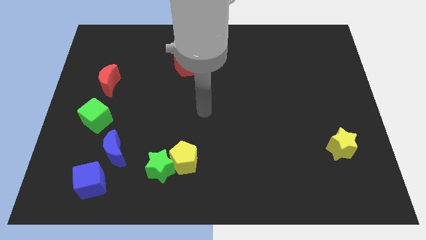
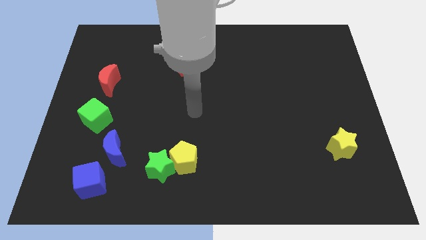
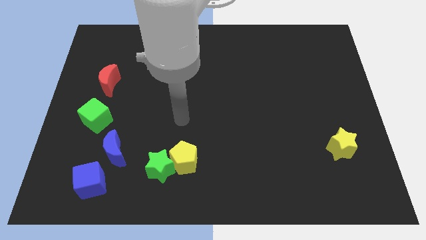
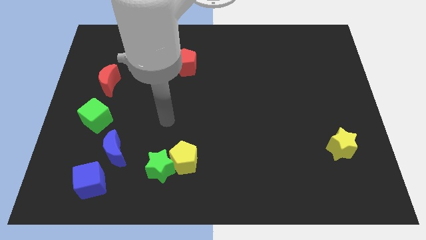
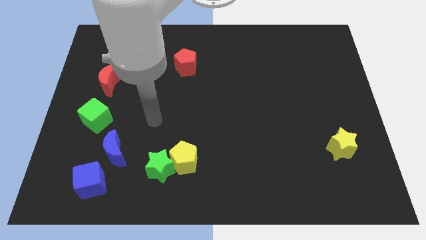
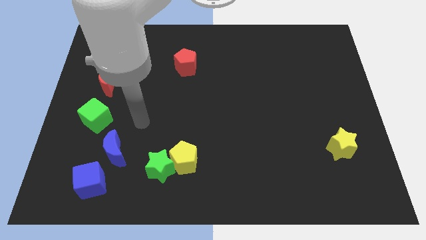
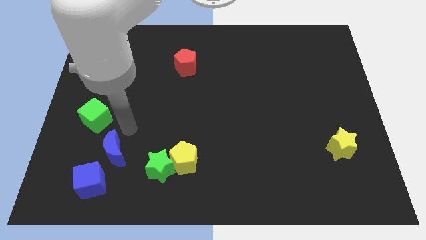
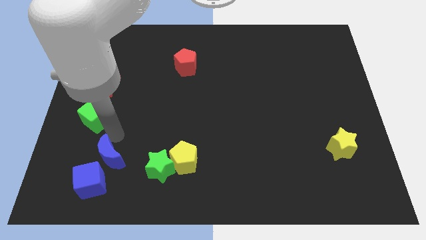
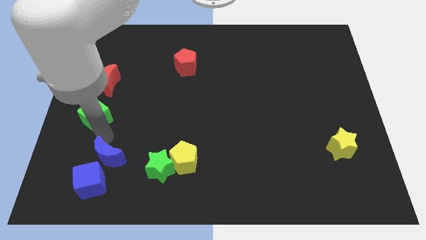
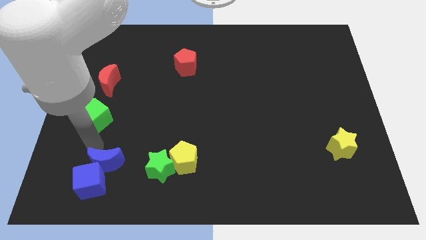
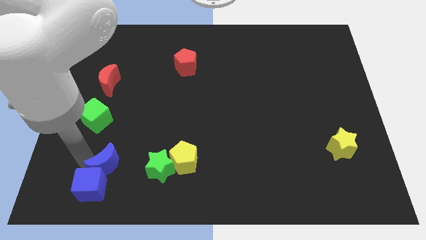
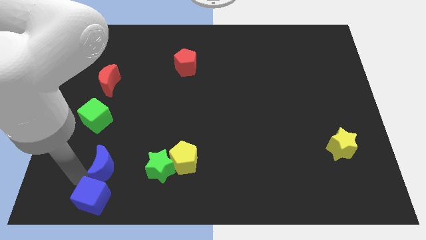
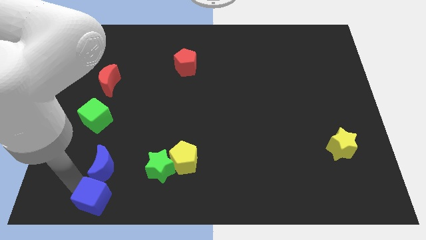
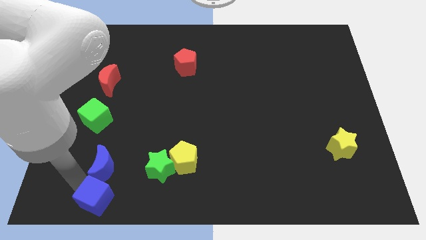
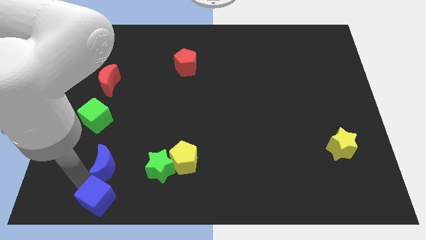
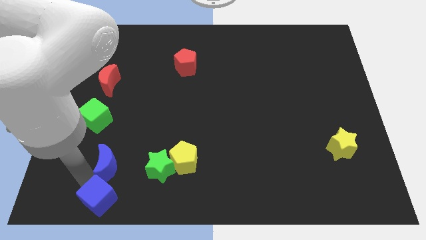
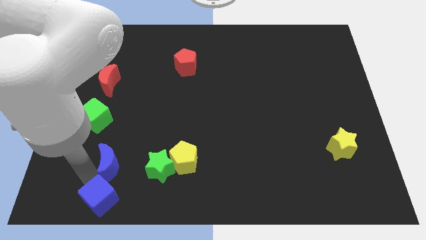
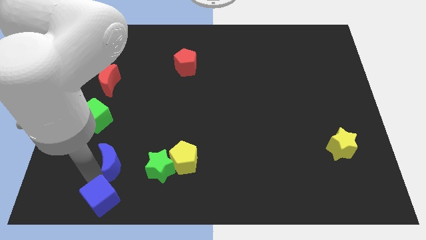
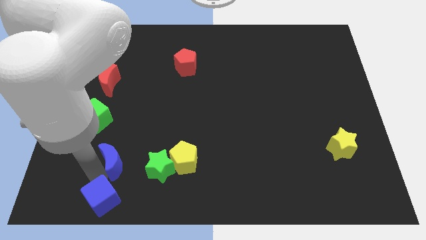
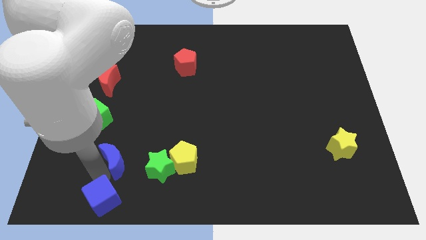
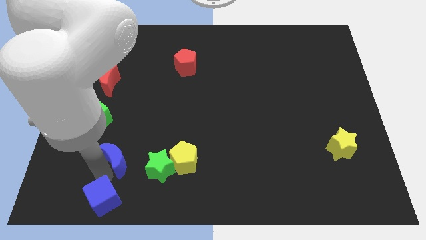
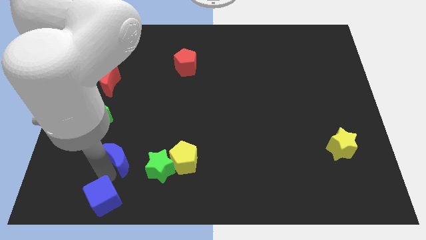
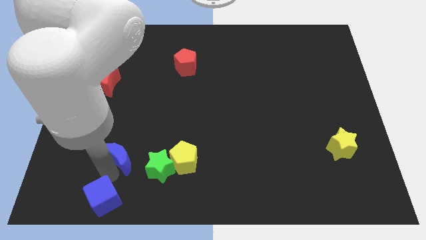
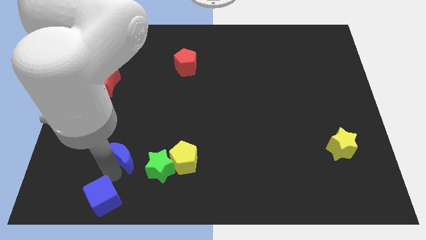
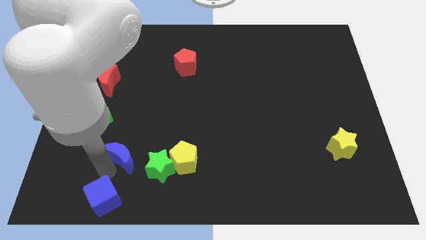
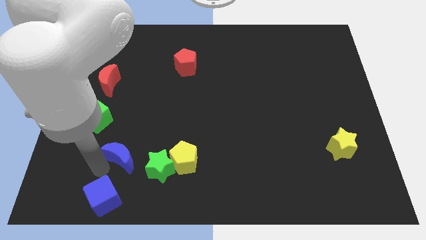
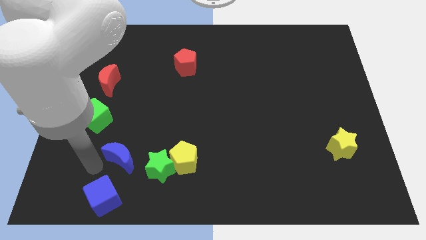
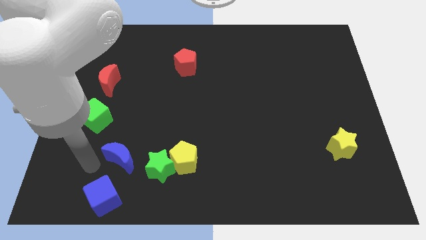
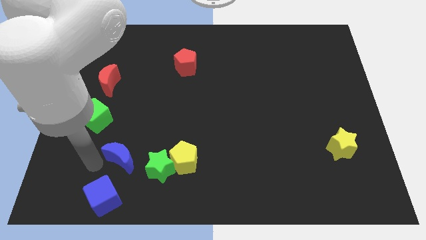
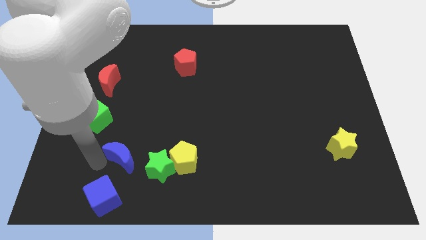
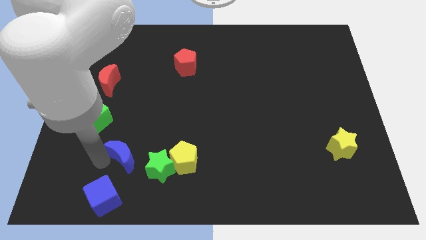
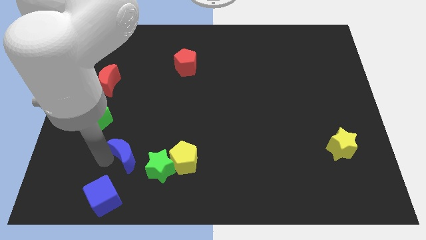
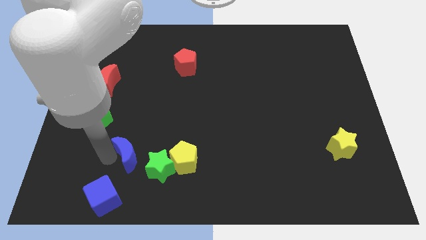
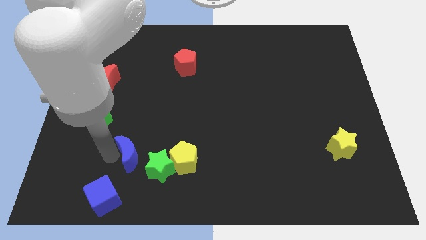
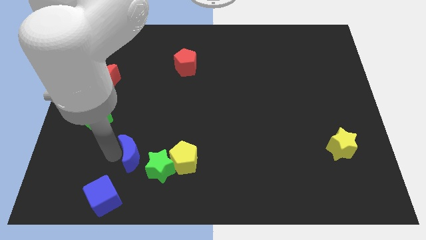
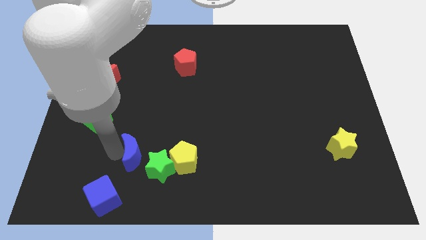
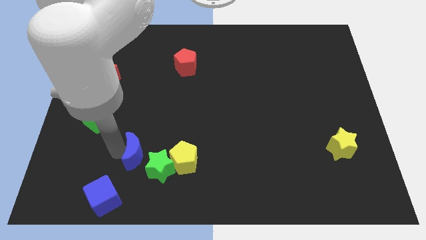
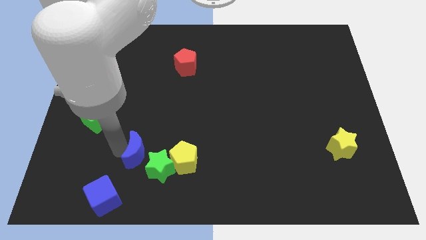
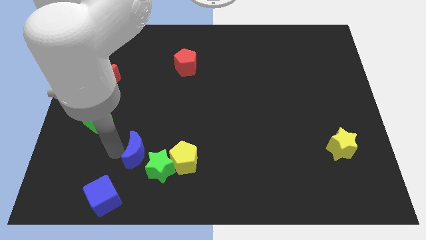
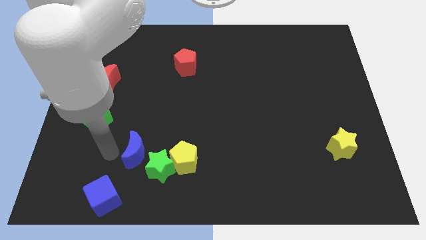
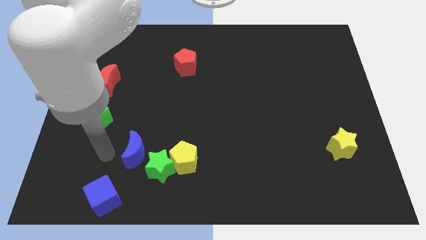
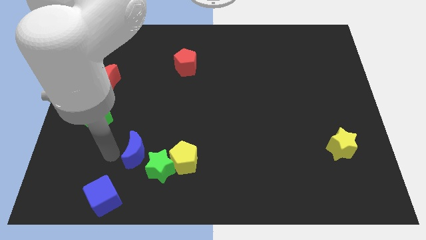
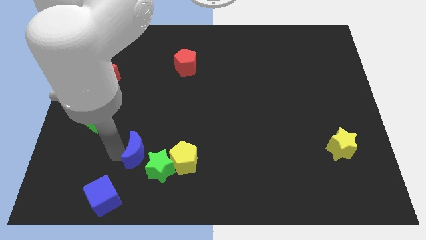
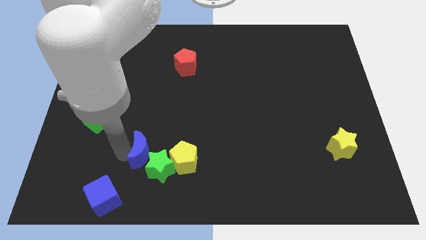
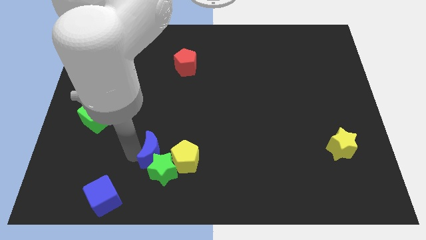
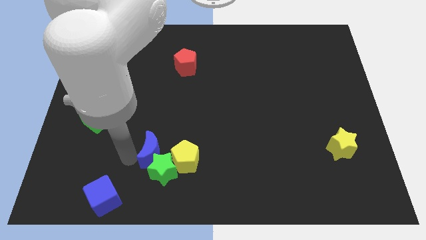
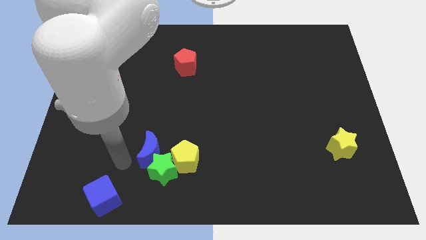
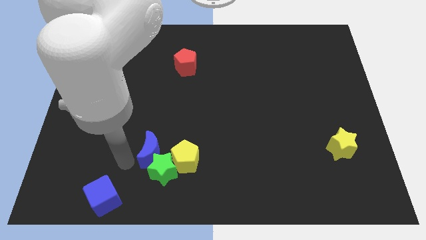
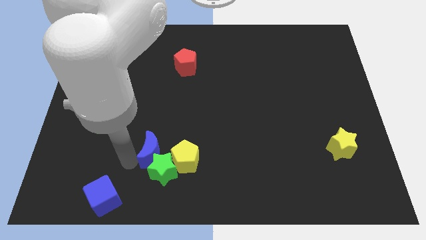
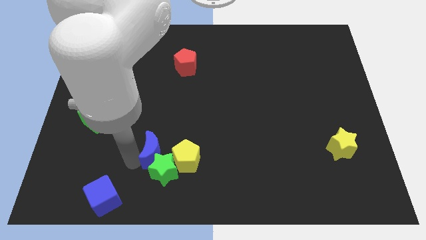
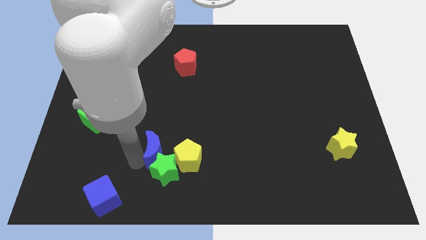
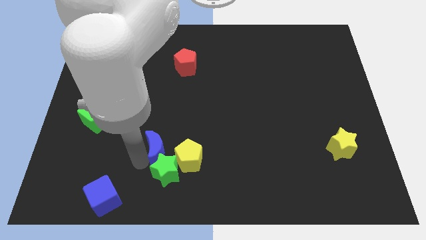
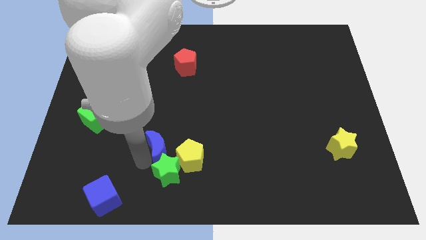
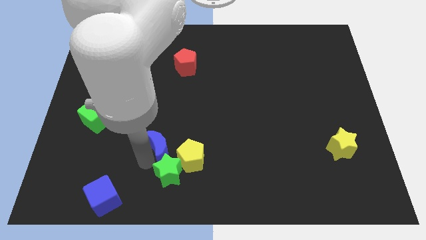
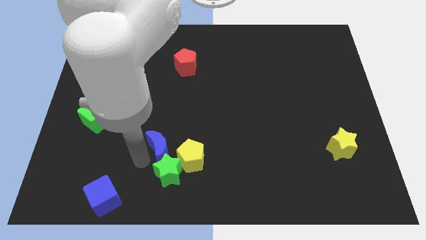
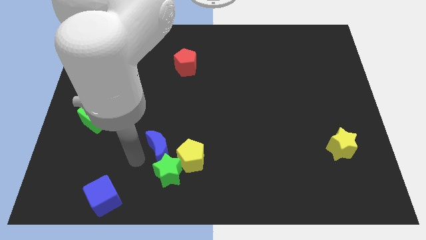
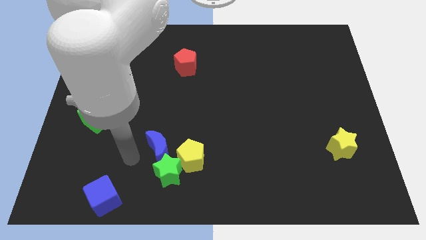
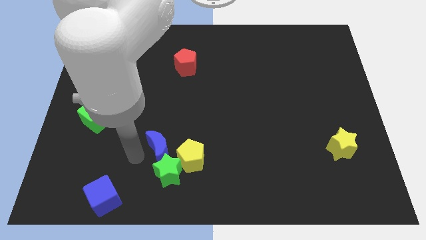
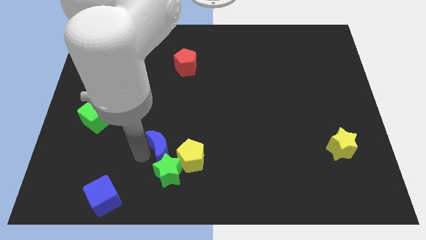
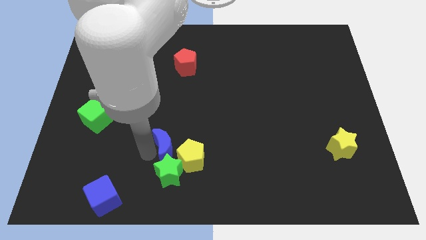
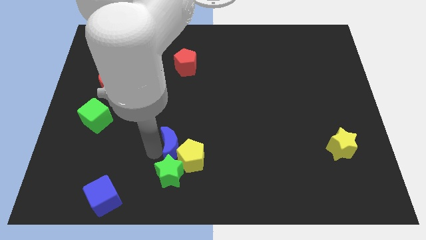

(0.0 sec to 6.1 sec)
put the blue moon towards the yellow pentagon

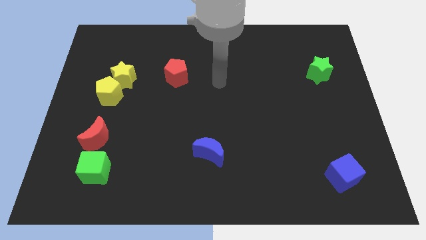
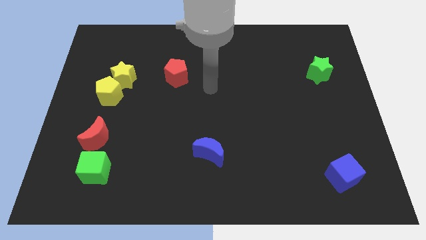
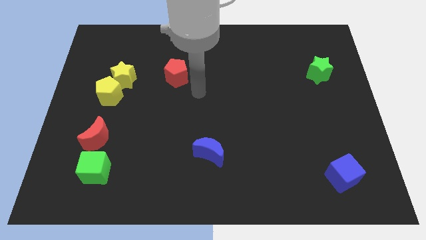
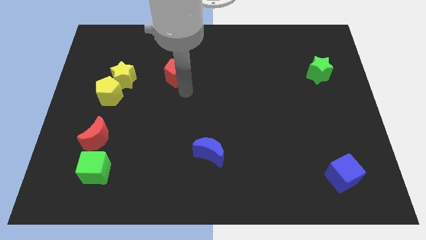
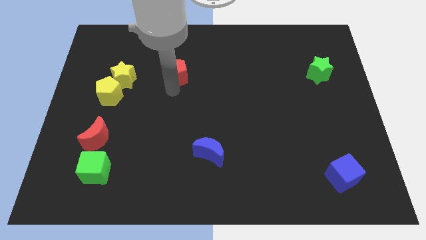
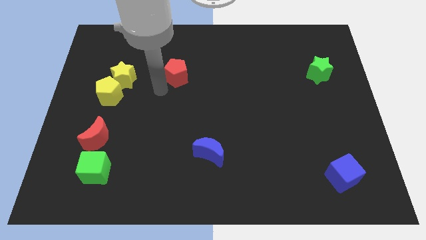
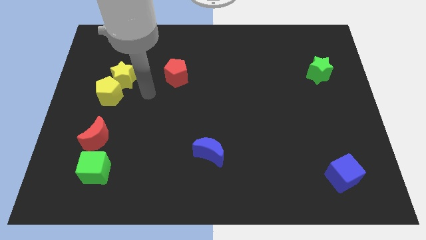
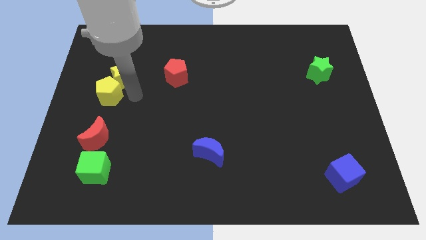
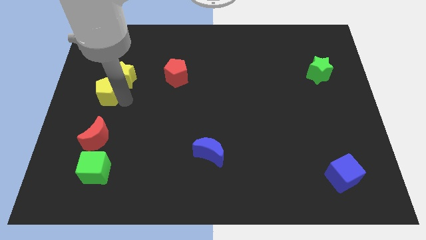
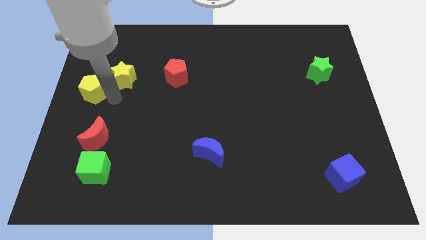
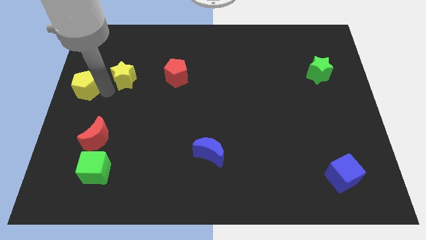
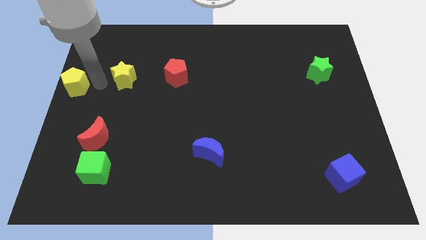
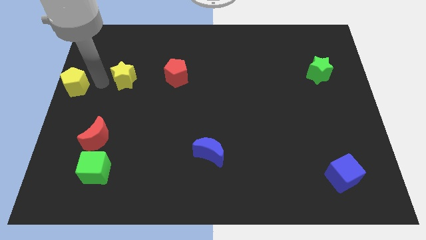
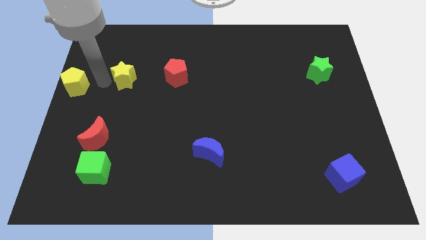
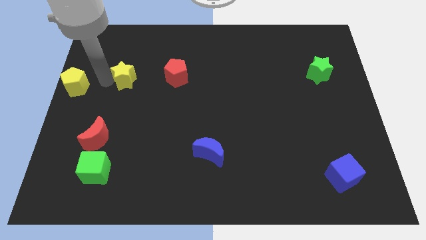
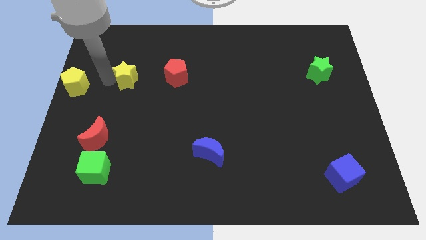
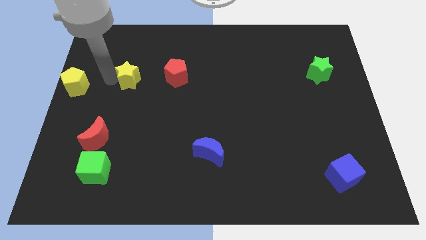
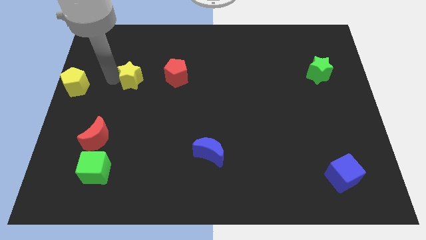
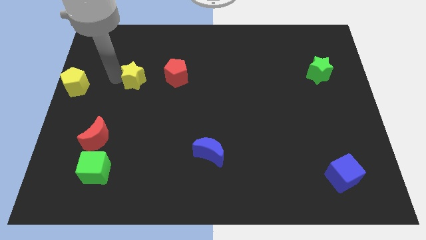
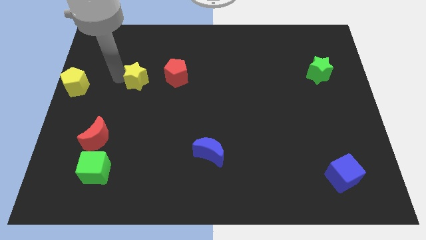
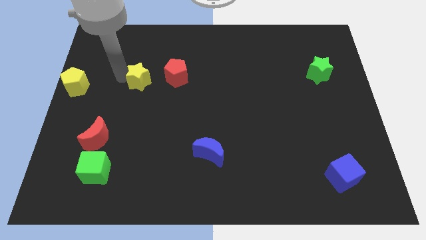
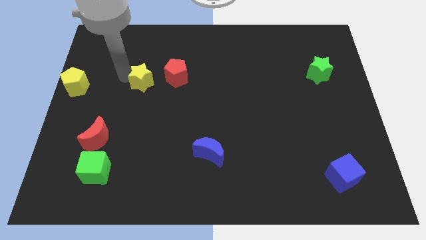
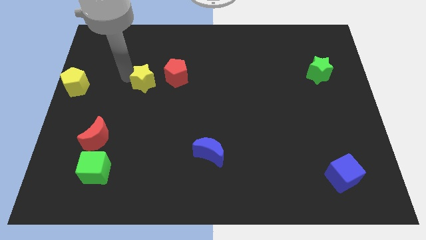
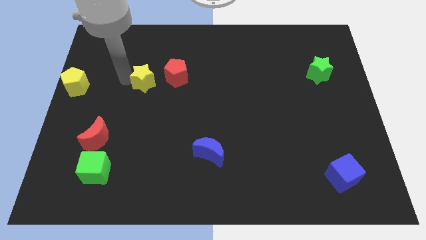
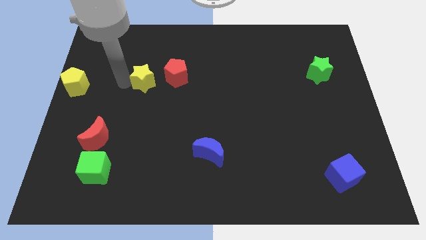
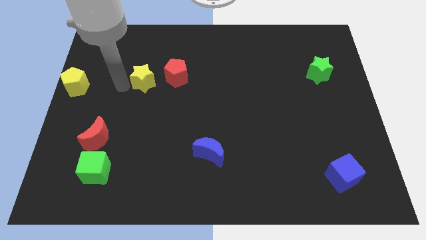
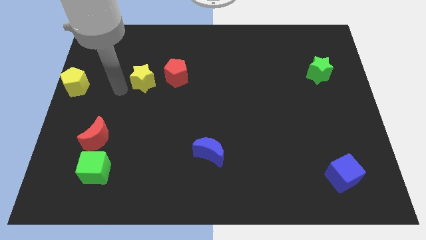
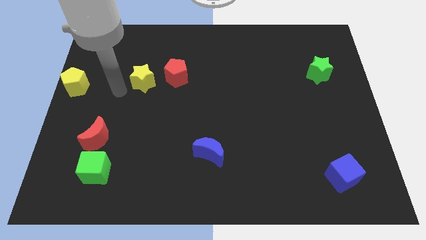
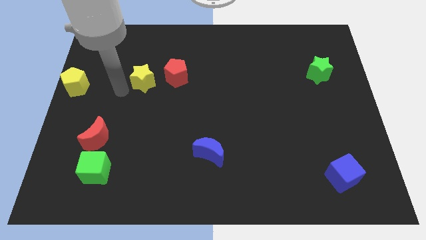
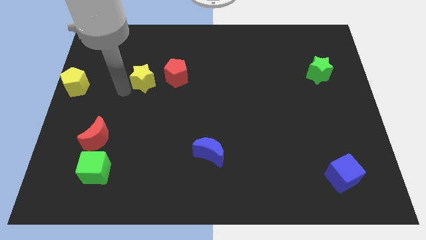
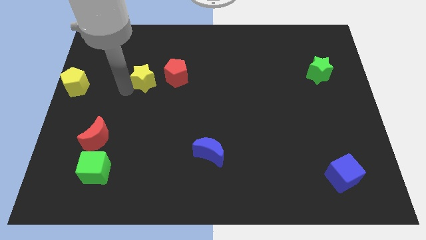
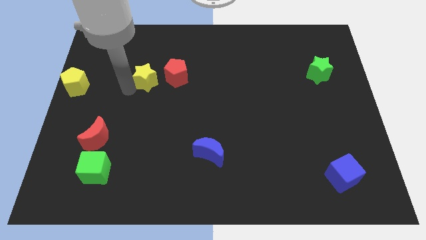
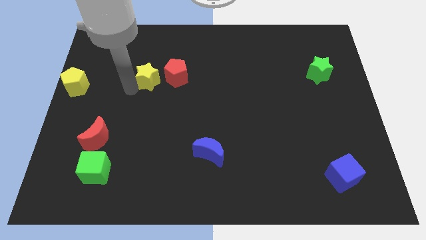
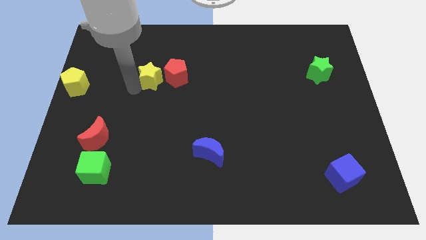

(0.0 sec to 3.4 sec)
slide the yellow star next to the red pentagon
